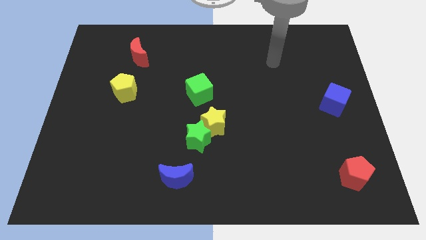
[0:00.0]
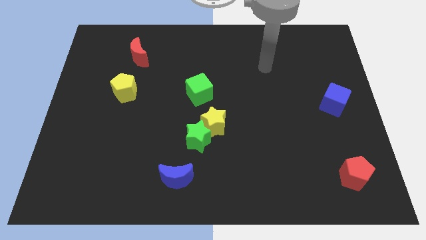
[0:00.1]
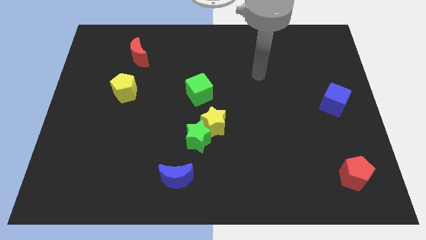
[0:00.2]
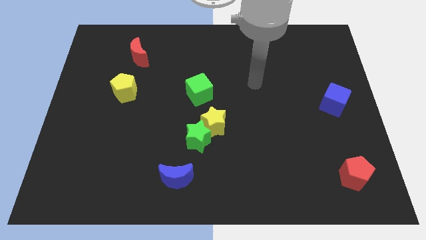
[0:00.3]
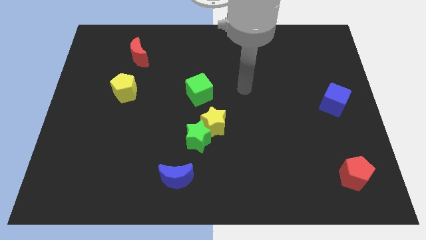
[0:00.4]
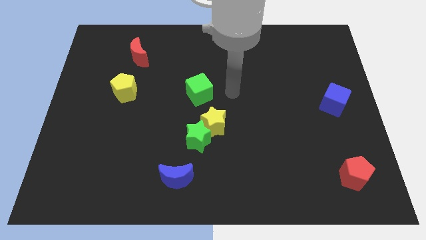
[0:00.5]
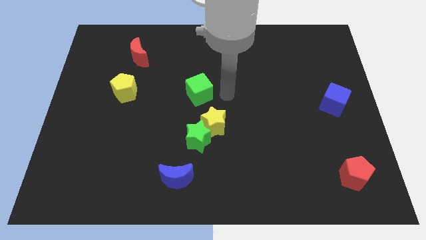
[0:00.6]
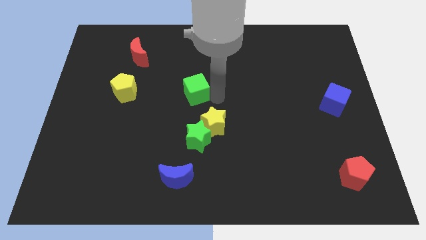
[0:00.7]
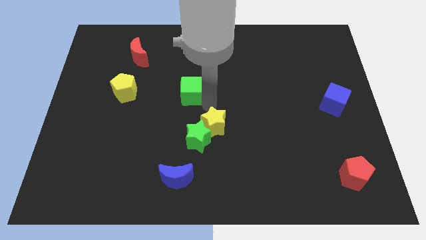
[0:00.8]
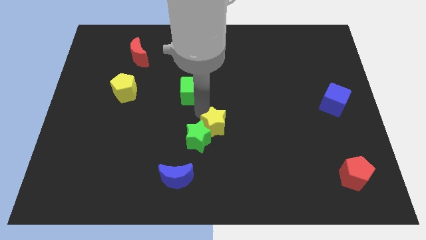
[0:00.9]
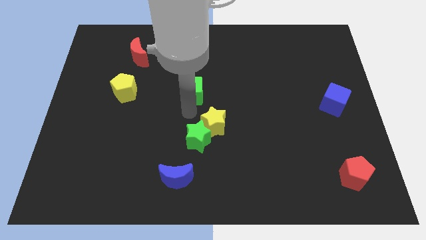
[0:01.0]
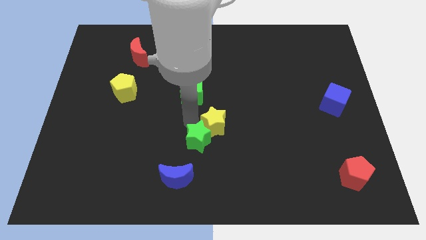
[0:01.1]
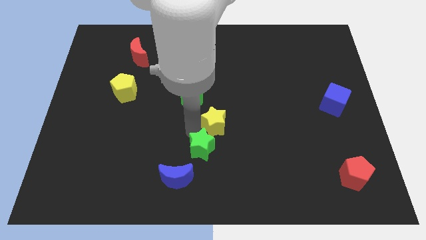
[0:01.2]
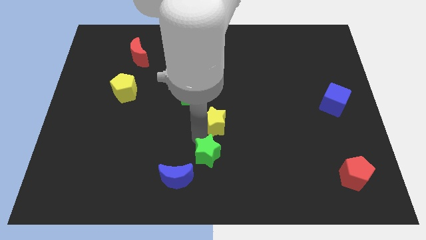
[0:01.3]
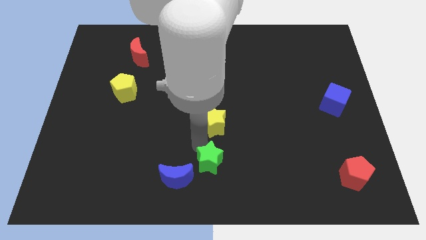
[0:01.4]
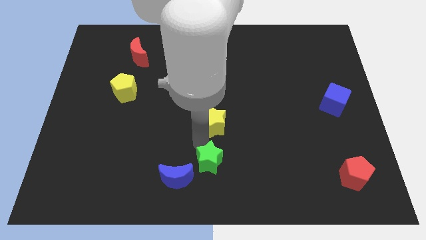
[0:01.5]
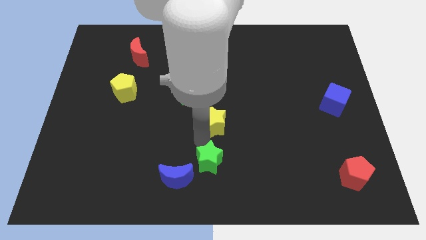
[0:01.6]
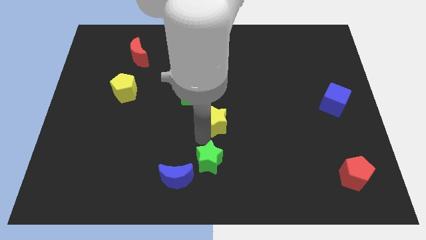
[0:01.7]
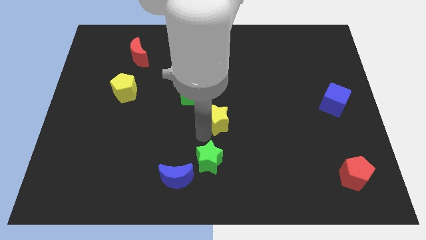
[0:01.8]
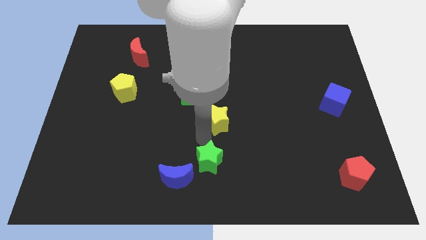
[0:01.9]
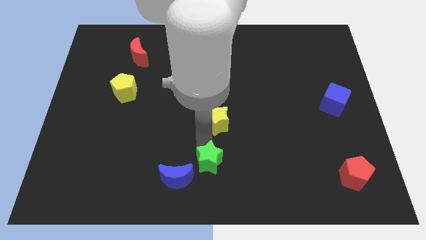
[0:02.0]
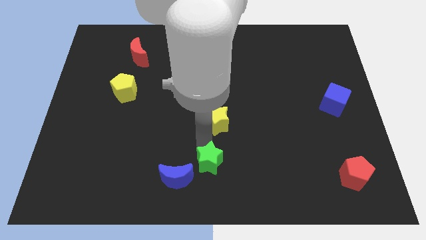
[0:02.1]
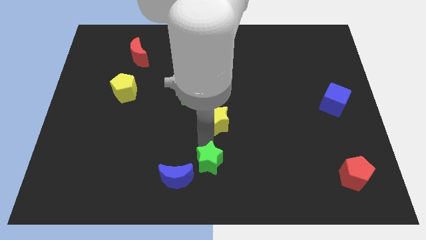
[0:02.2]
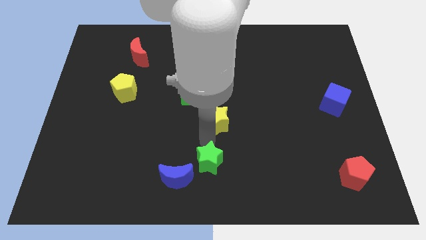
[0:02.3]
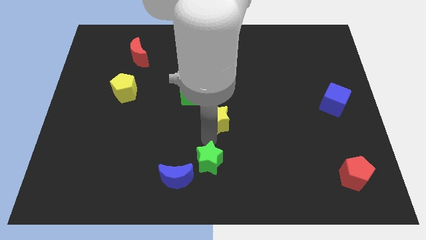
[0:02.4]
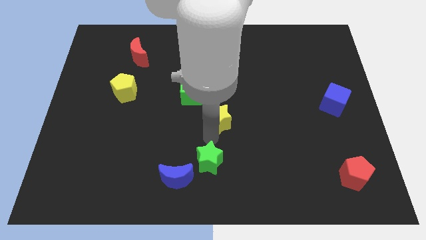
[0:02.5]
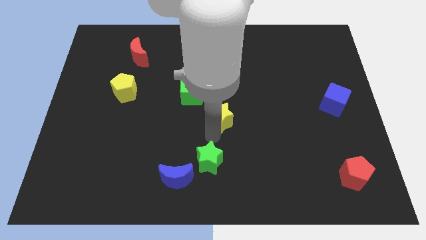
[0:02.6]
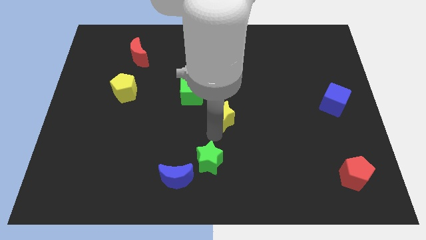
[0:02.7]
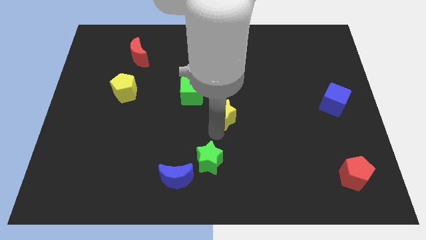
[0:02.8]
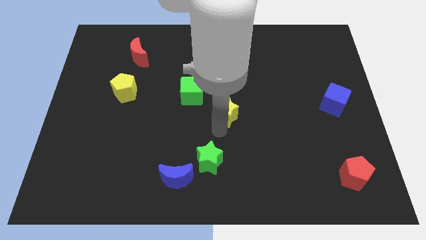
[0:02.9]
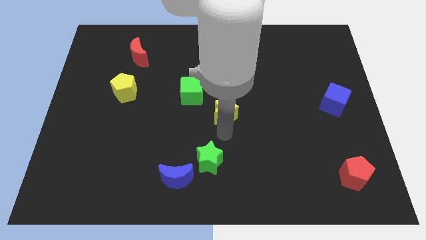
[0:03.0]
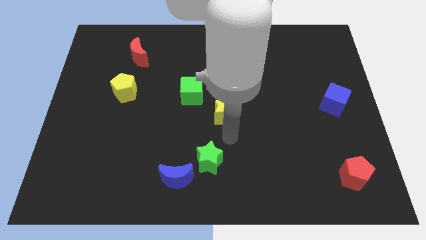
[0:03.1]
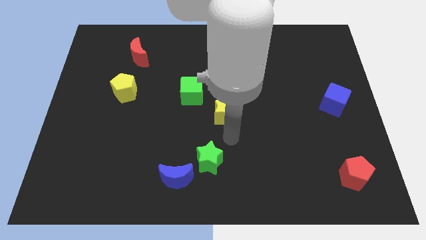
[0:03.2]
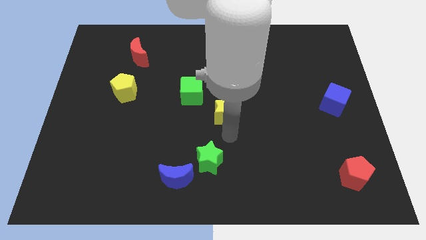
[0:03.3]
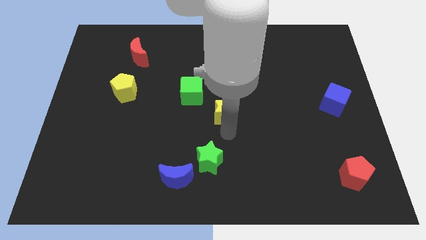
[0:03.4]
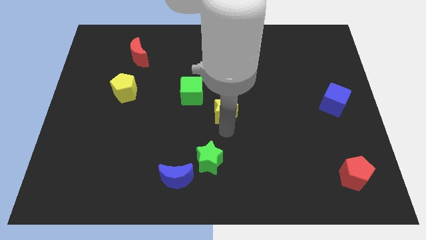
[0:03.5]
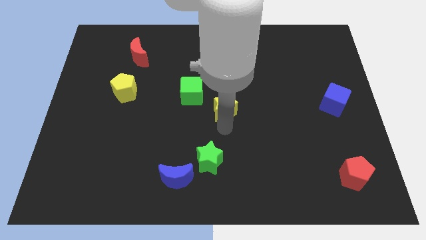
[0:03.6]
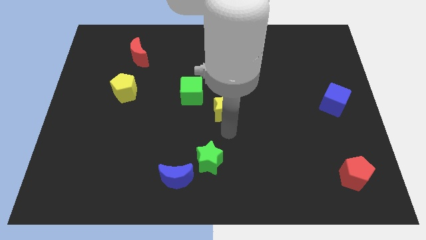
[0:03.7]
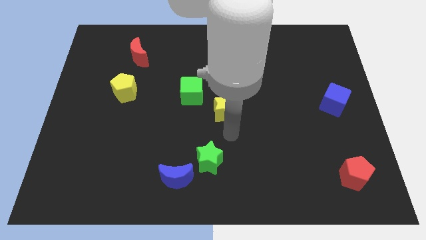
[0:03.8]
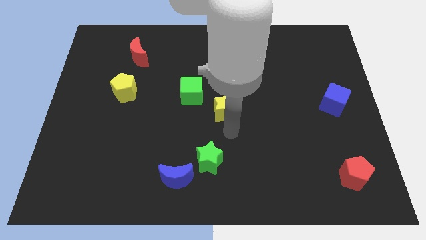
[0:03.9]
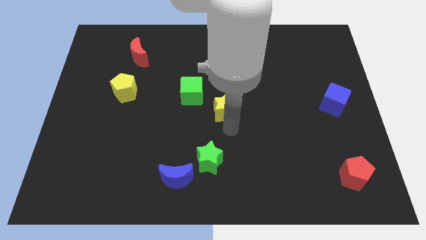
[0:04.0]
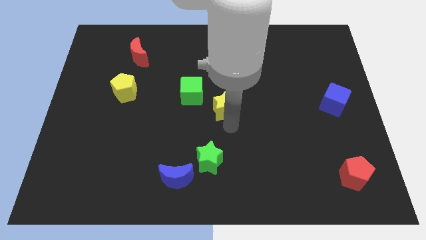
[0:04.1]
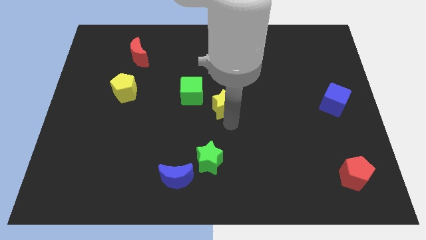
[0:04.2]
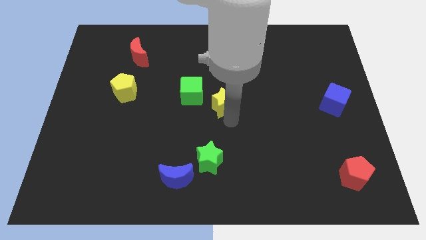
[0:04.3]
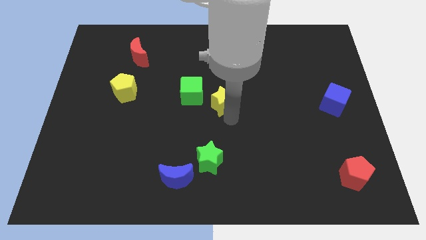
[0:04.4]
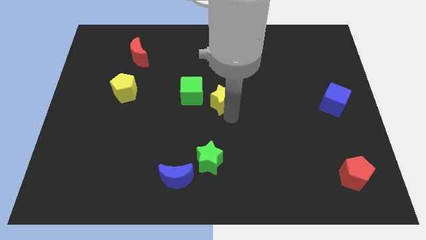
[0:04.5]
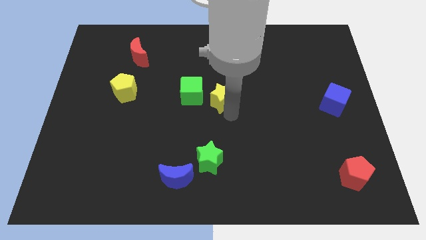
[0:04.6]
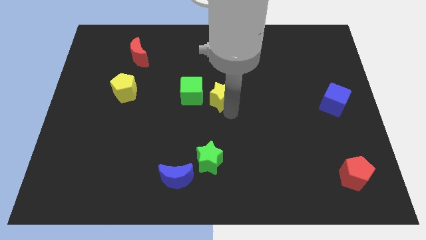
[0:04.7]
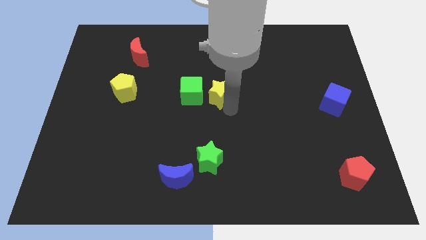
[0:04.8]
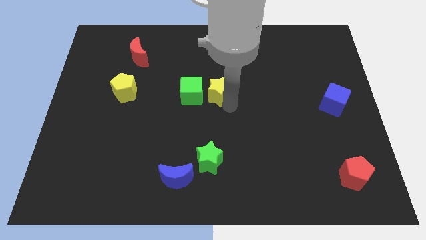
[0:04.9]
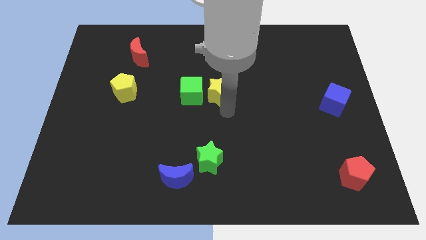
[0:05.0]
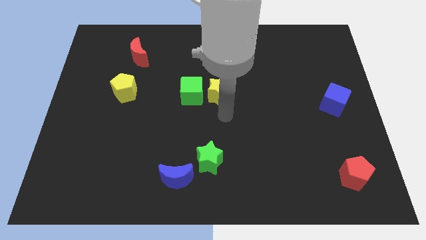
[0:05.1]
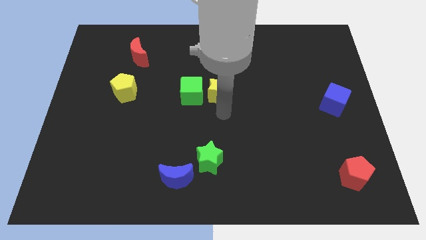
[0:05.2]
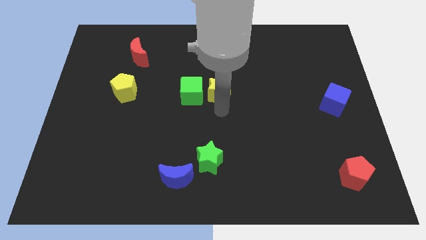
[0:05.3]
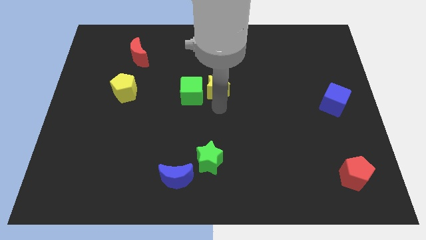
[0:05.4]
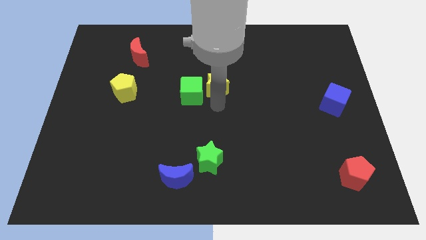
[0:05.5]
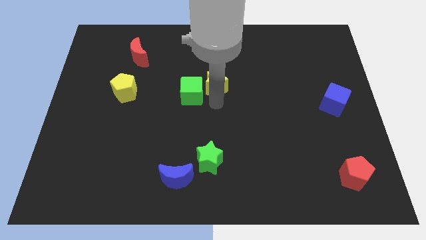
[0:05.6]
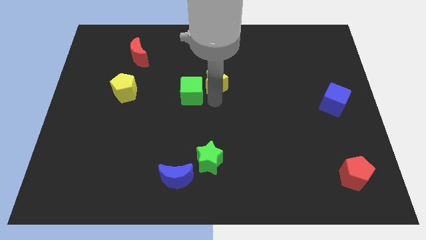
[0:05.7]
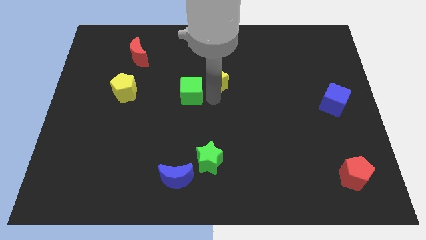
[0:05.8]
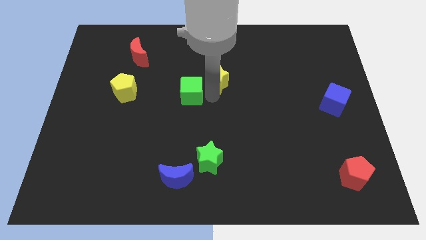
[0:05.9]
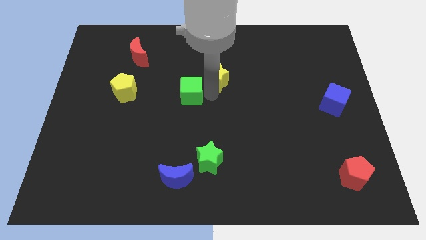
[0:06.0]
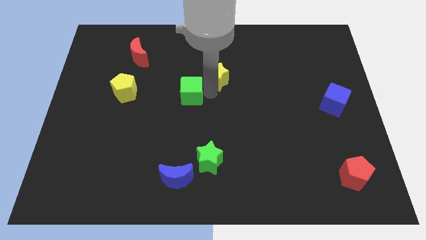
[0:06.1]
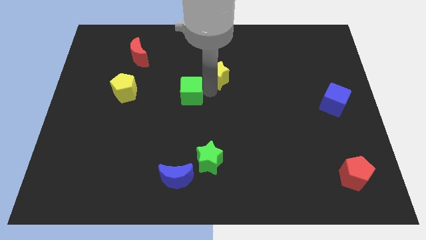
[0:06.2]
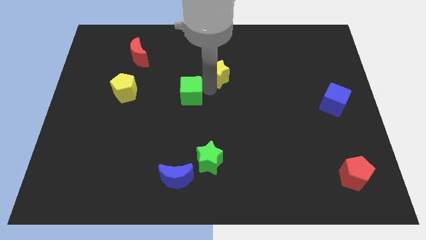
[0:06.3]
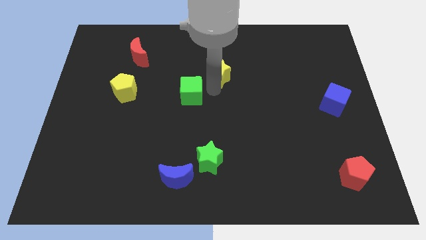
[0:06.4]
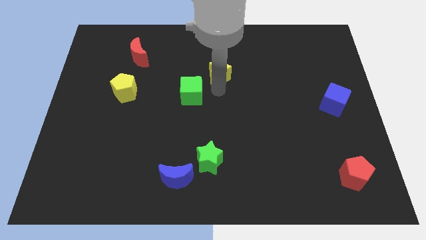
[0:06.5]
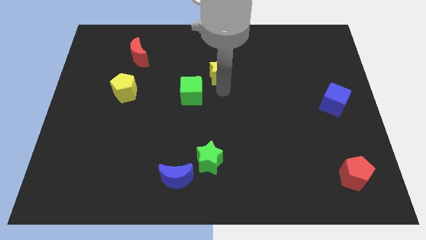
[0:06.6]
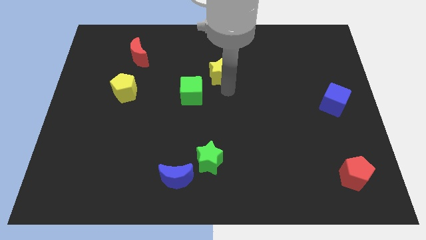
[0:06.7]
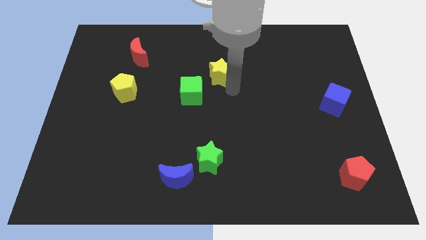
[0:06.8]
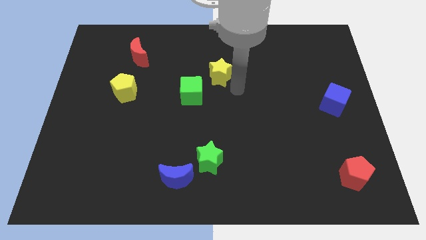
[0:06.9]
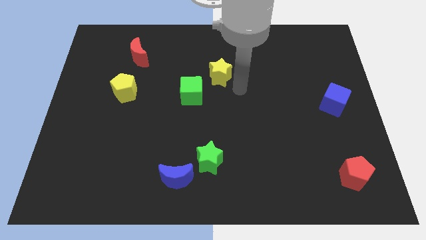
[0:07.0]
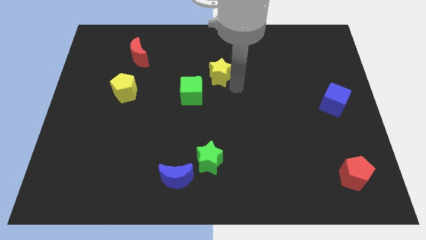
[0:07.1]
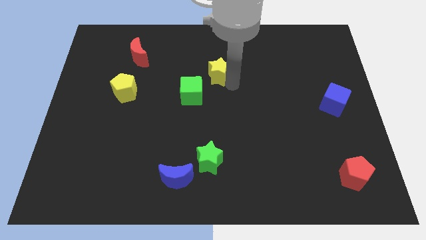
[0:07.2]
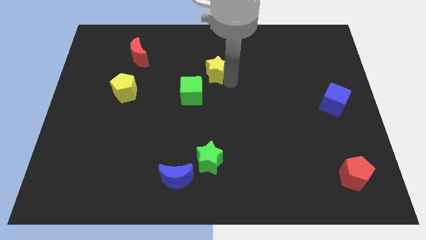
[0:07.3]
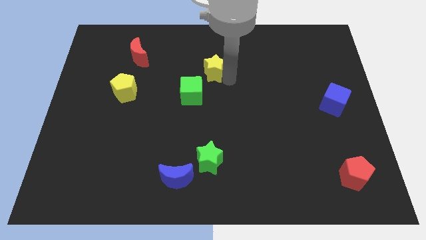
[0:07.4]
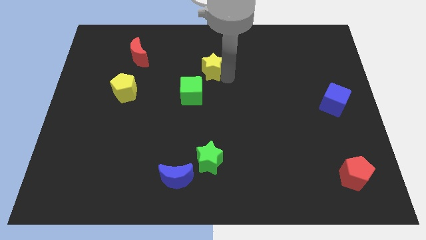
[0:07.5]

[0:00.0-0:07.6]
slide the yellow star above the green cube
